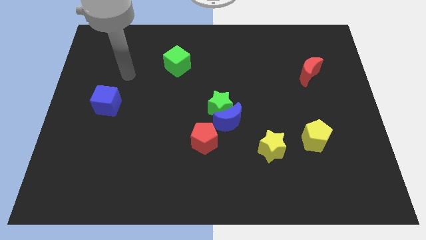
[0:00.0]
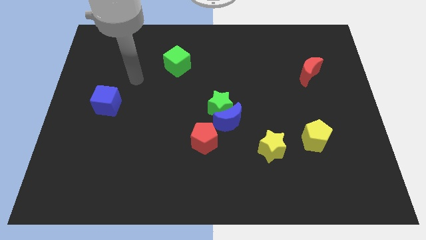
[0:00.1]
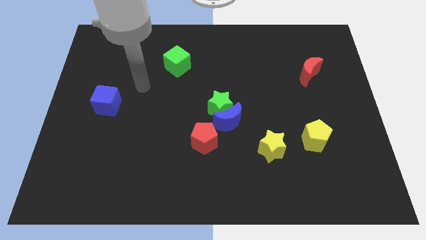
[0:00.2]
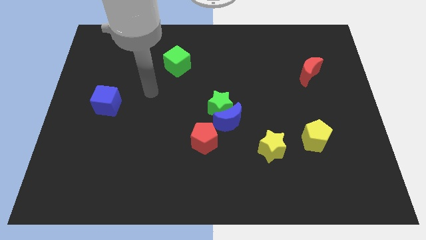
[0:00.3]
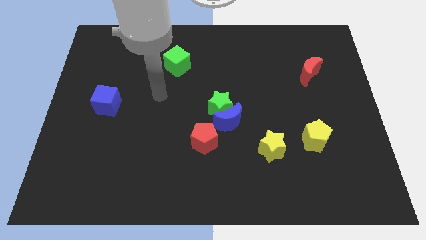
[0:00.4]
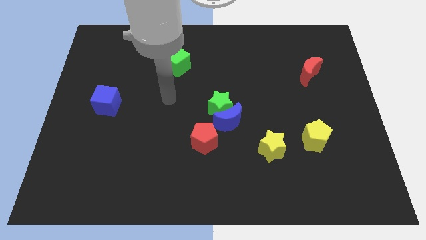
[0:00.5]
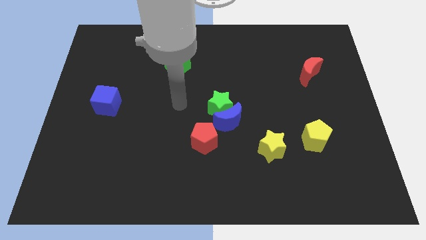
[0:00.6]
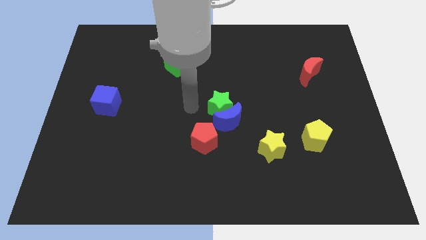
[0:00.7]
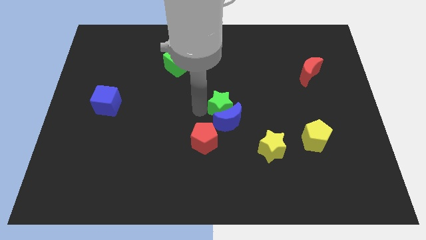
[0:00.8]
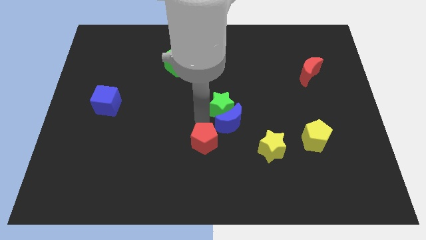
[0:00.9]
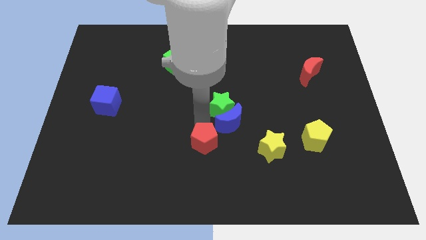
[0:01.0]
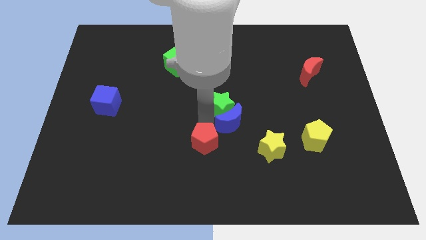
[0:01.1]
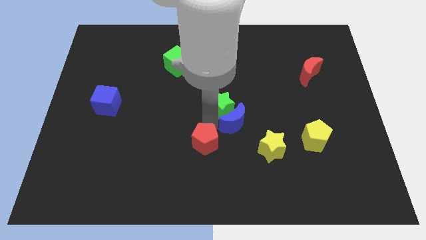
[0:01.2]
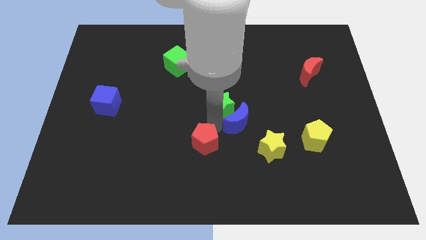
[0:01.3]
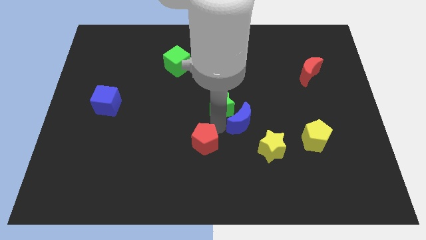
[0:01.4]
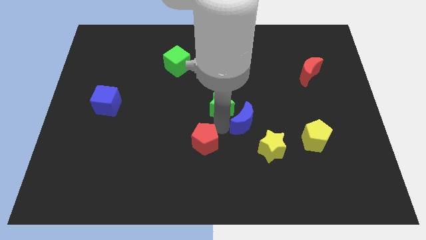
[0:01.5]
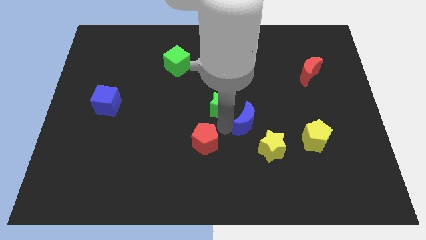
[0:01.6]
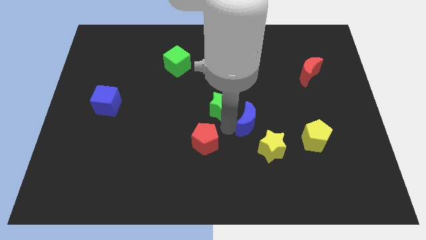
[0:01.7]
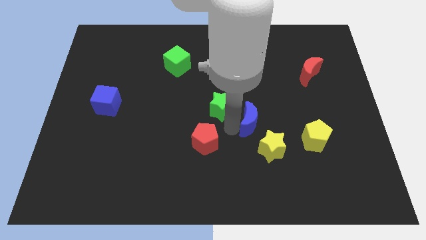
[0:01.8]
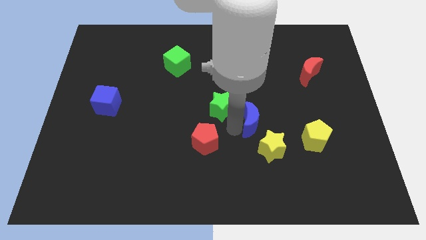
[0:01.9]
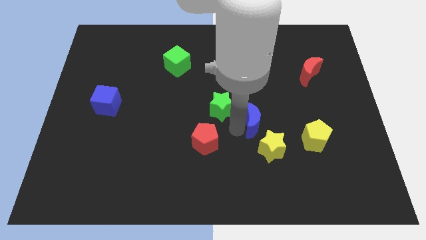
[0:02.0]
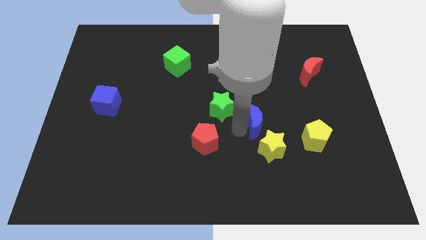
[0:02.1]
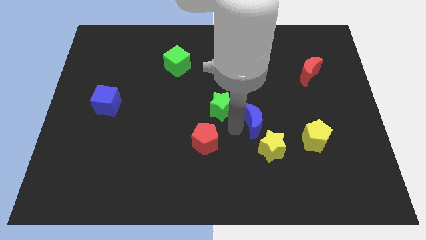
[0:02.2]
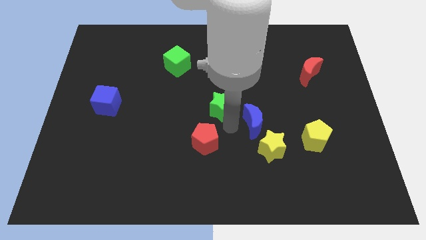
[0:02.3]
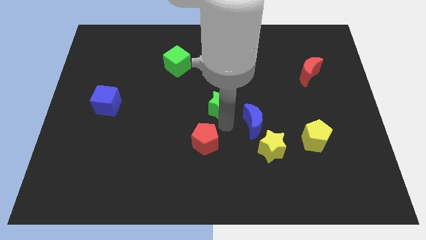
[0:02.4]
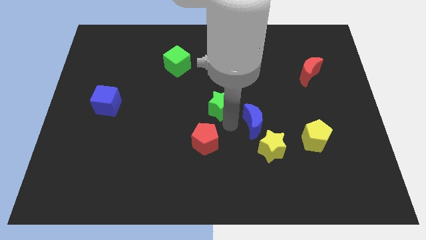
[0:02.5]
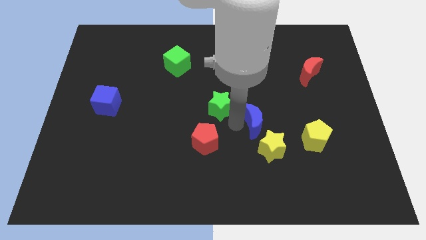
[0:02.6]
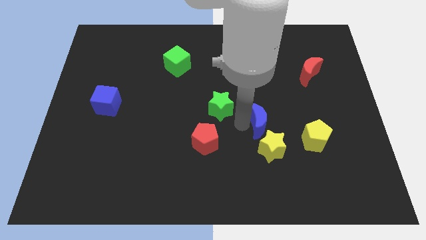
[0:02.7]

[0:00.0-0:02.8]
move the blue moon away from the green star and red pentagon

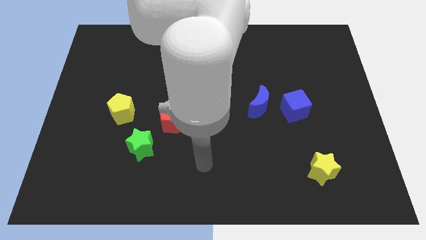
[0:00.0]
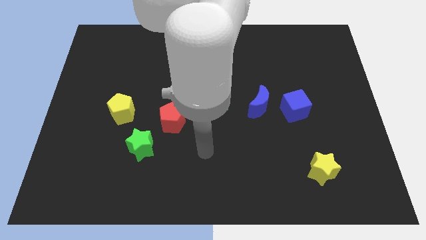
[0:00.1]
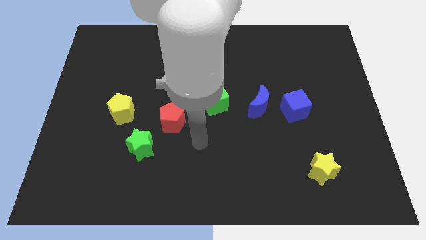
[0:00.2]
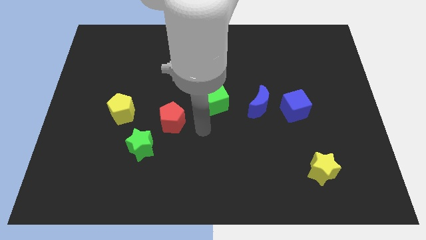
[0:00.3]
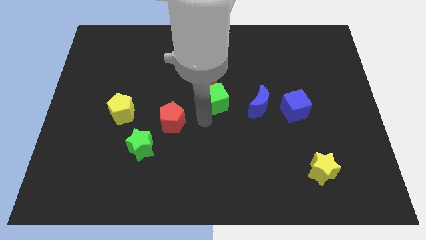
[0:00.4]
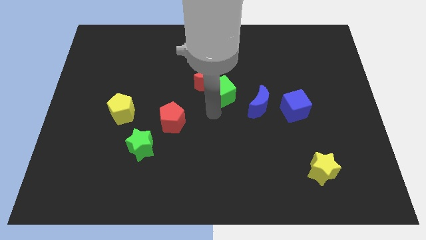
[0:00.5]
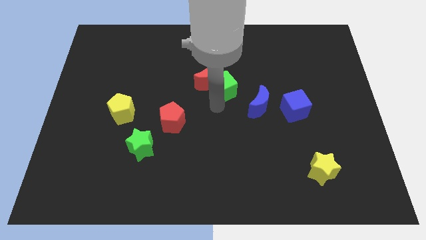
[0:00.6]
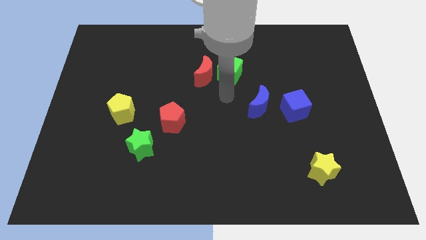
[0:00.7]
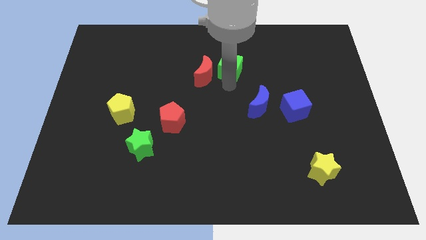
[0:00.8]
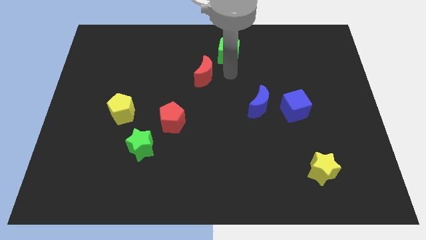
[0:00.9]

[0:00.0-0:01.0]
move the red moon away from the green cube

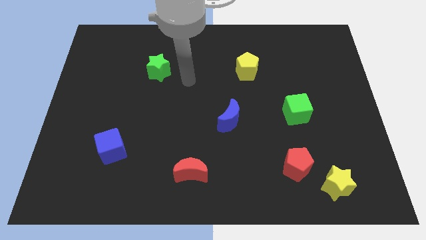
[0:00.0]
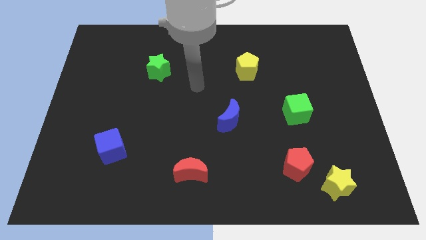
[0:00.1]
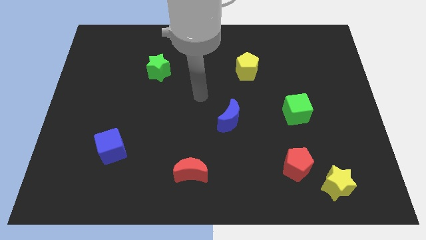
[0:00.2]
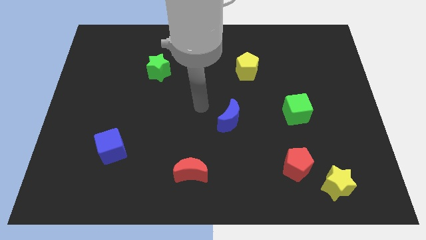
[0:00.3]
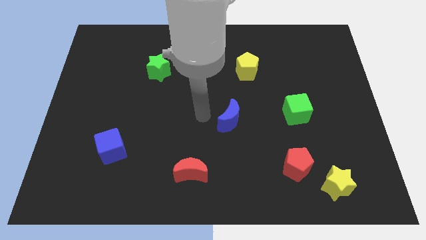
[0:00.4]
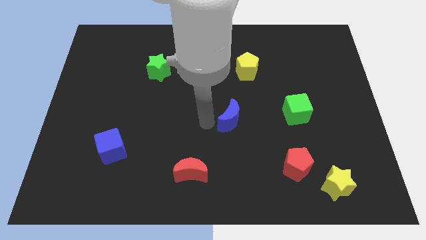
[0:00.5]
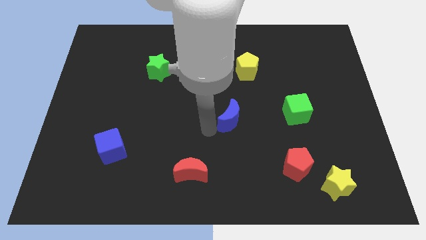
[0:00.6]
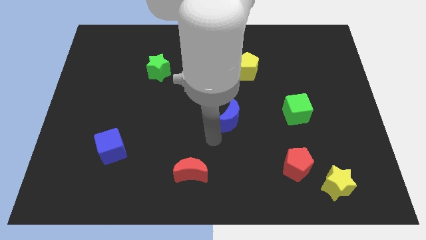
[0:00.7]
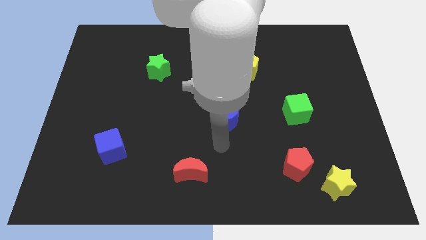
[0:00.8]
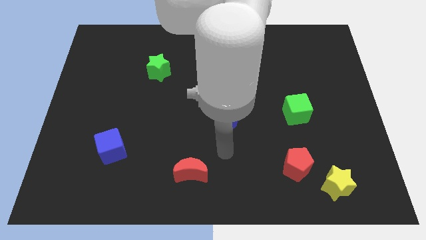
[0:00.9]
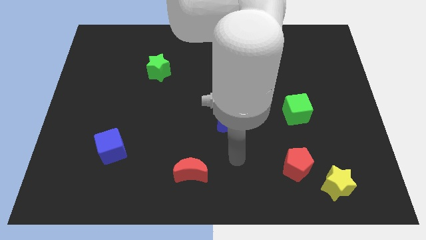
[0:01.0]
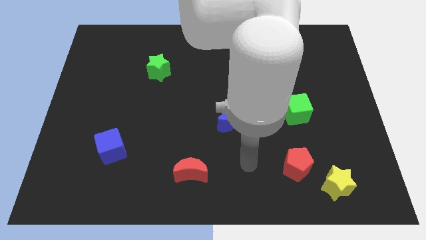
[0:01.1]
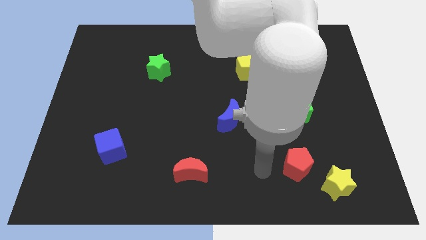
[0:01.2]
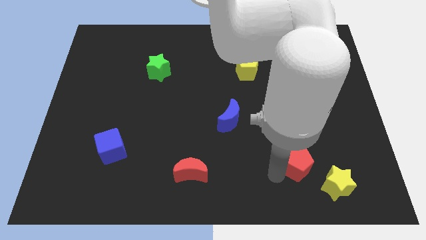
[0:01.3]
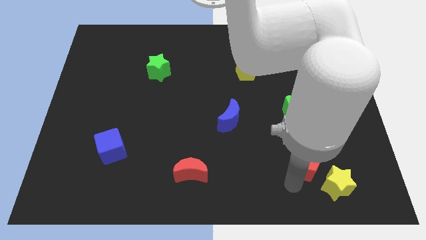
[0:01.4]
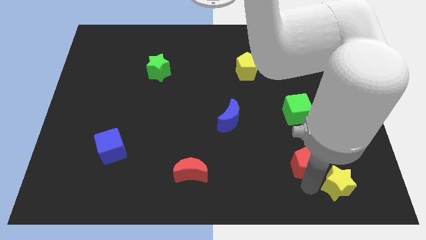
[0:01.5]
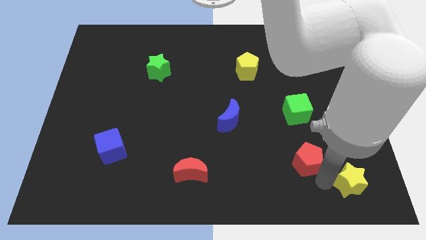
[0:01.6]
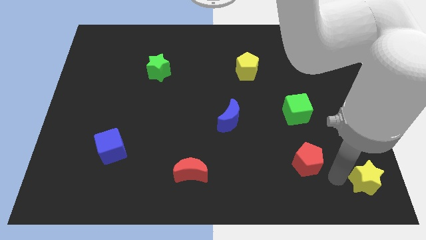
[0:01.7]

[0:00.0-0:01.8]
pull the red pentagon apart from the yellow star

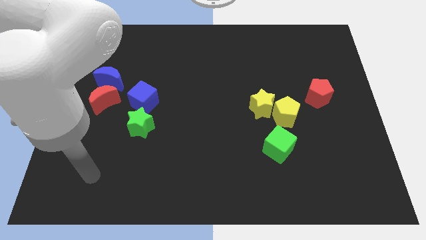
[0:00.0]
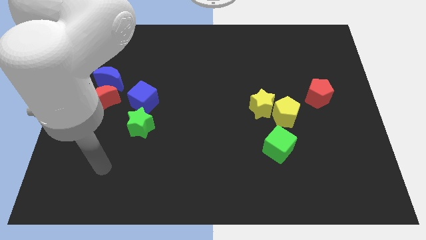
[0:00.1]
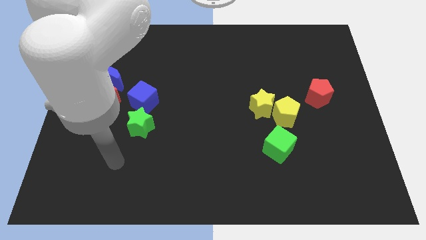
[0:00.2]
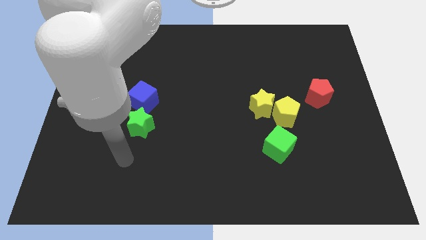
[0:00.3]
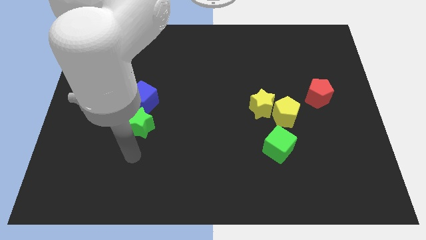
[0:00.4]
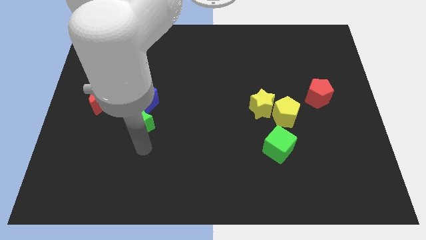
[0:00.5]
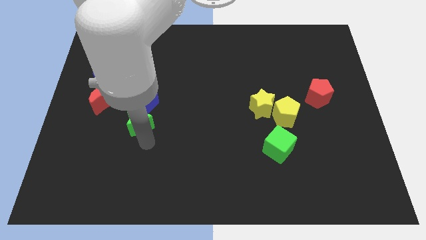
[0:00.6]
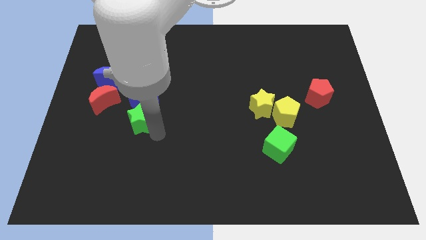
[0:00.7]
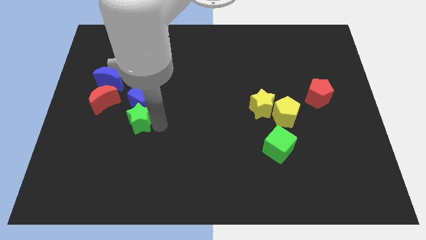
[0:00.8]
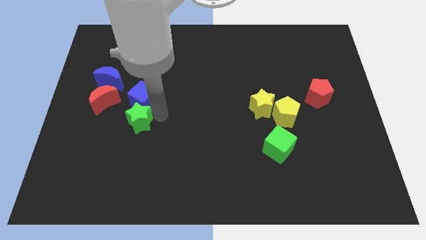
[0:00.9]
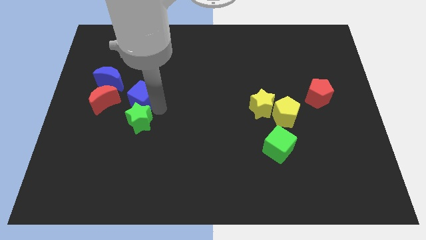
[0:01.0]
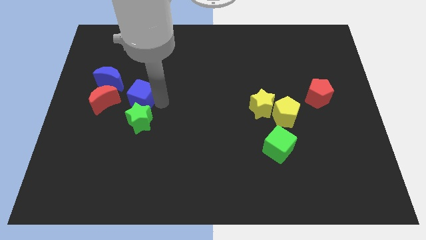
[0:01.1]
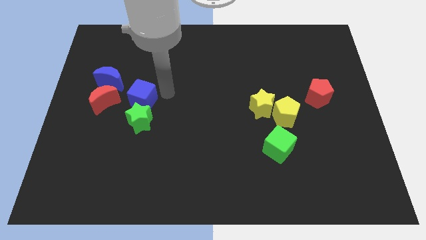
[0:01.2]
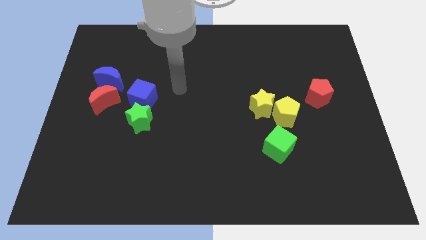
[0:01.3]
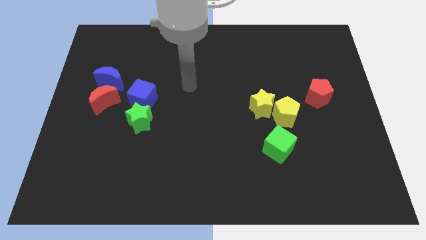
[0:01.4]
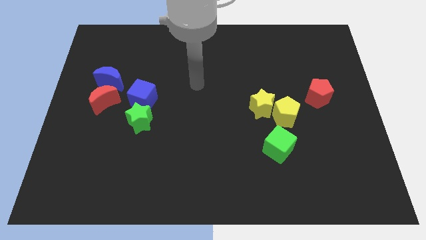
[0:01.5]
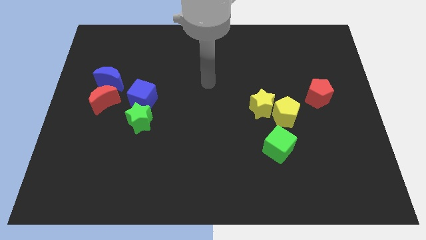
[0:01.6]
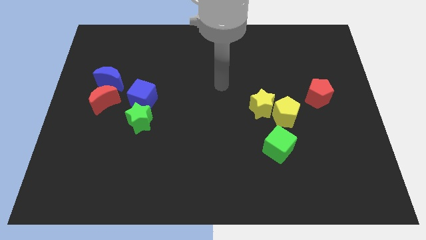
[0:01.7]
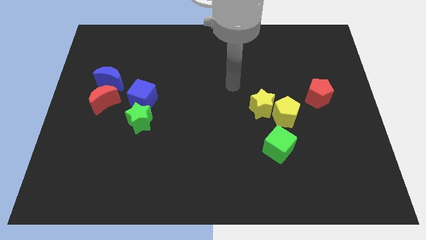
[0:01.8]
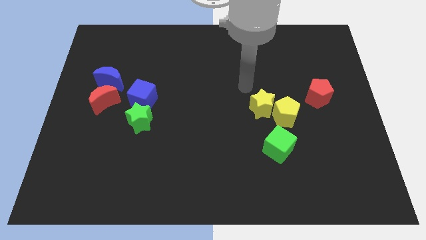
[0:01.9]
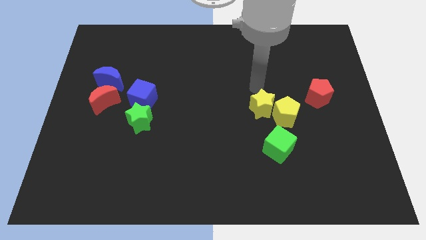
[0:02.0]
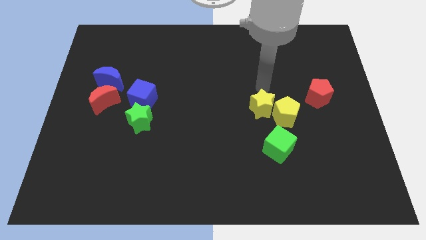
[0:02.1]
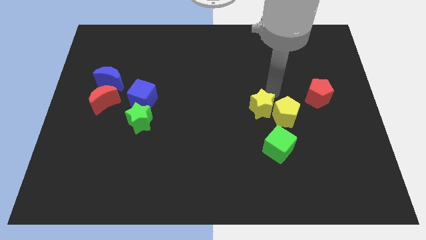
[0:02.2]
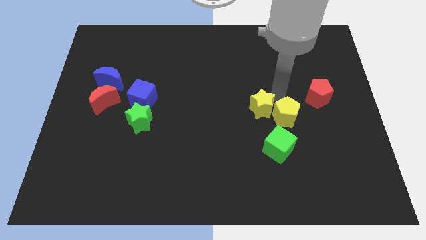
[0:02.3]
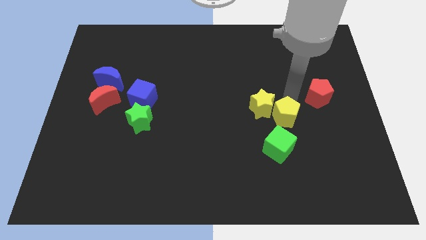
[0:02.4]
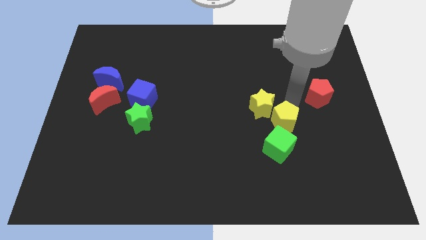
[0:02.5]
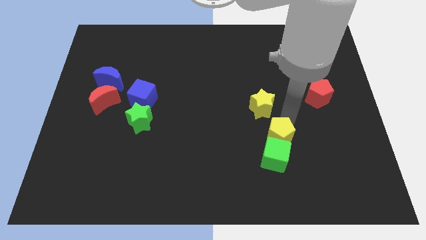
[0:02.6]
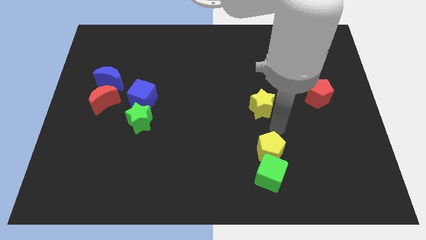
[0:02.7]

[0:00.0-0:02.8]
separate the yellow star from the yellow pentagon

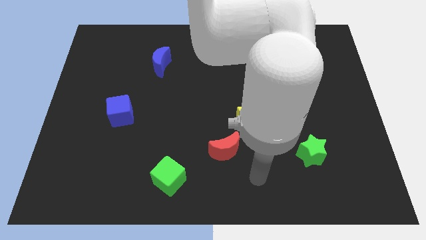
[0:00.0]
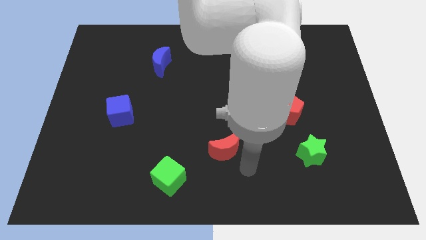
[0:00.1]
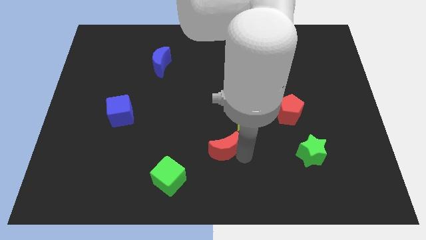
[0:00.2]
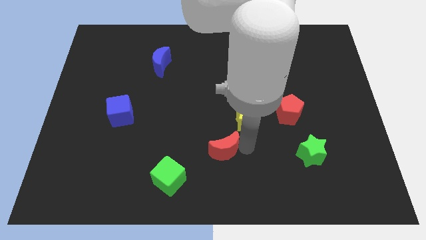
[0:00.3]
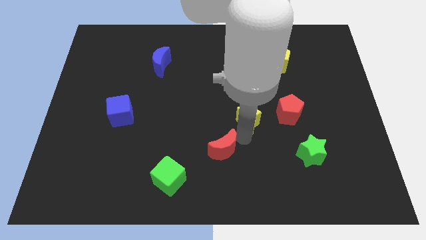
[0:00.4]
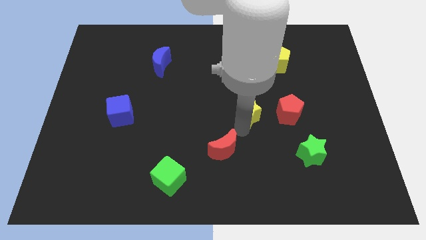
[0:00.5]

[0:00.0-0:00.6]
pull the red moon apart from the yellow star

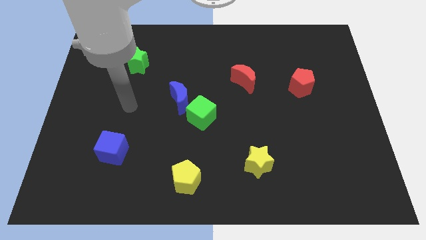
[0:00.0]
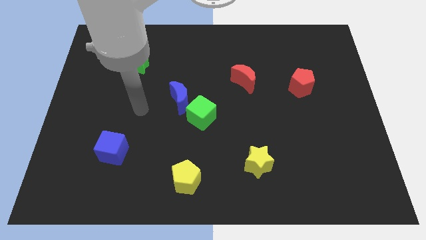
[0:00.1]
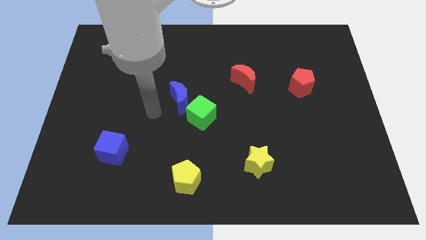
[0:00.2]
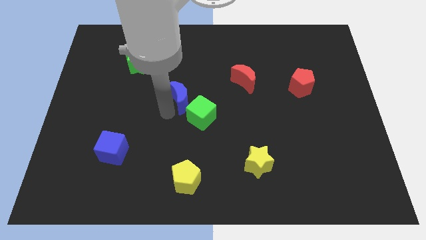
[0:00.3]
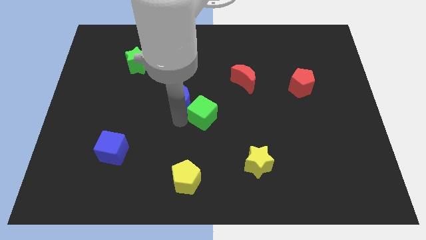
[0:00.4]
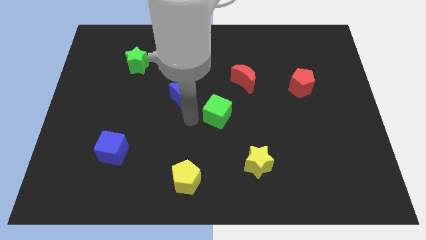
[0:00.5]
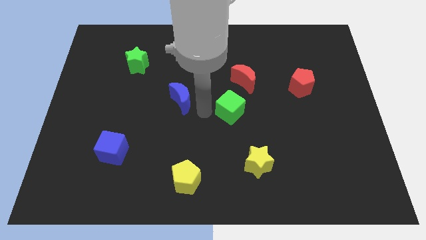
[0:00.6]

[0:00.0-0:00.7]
pull the blue moon apart from the green cube
